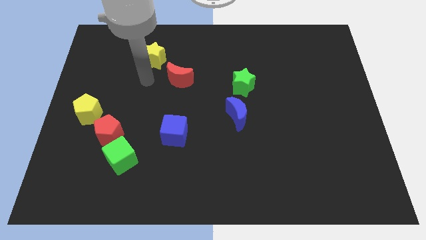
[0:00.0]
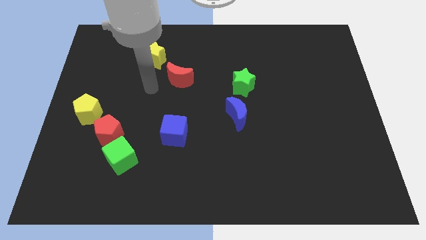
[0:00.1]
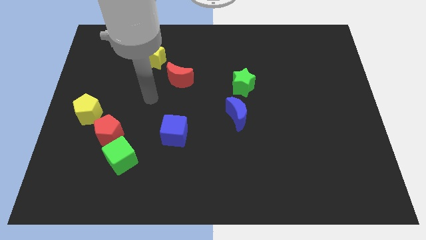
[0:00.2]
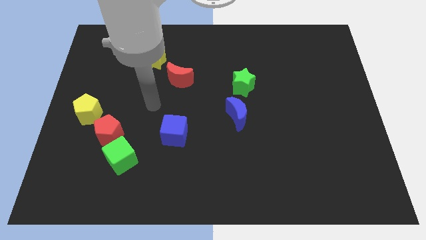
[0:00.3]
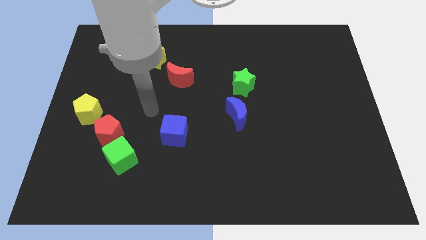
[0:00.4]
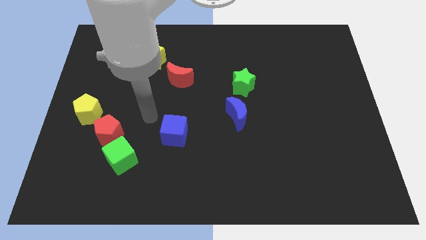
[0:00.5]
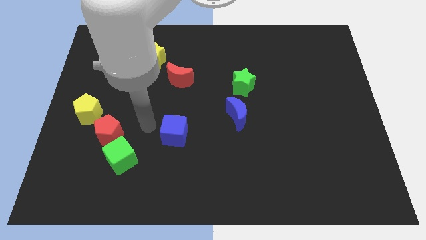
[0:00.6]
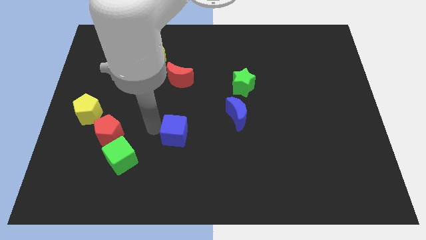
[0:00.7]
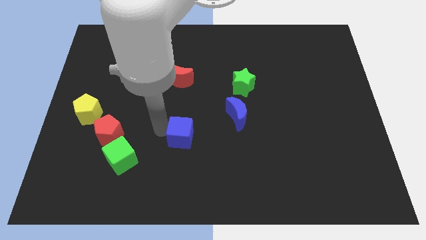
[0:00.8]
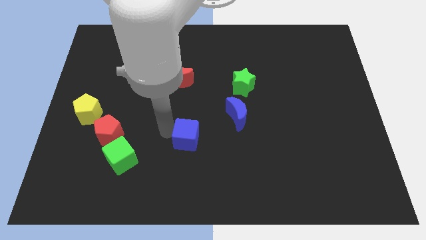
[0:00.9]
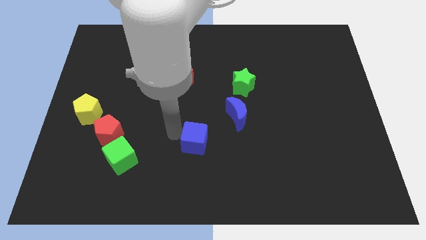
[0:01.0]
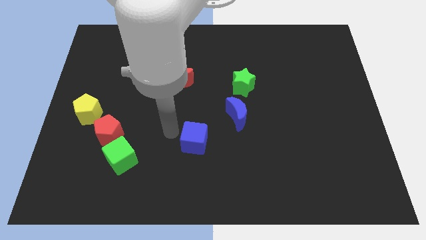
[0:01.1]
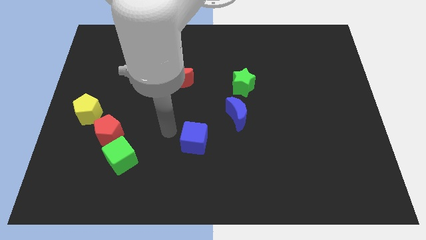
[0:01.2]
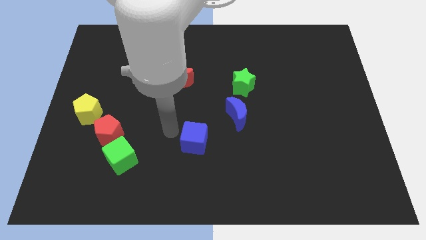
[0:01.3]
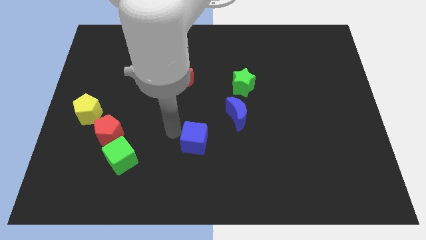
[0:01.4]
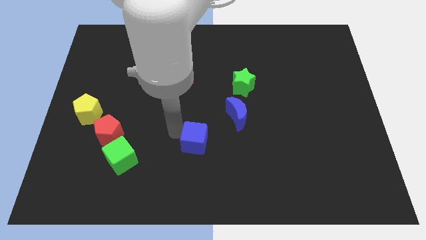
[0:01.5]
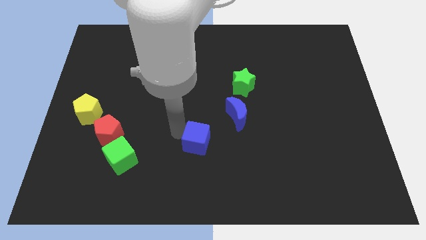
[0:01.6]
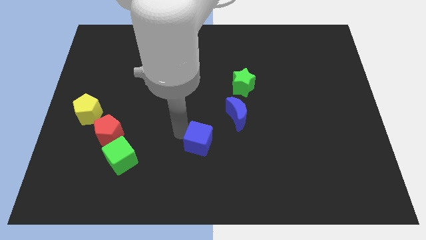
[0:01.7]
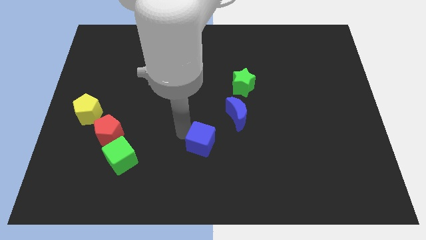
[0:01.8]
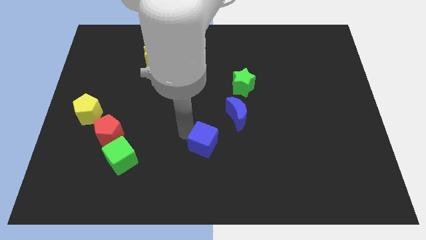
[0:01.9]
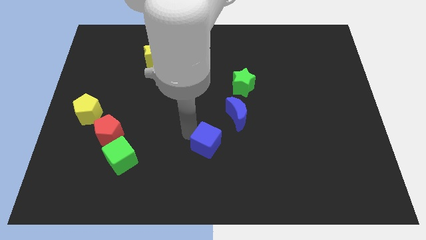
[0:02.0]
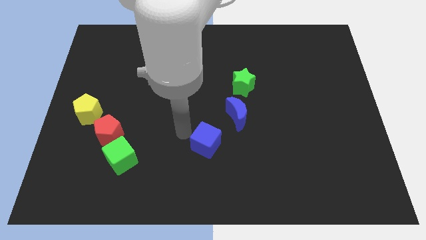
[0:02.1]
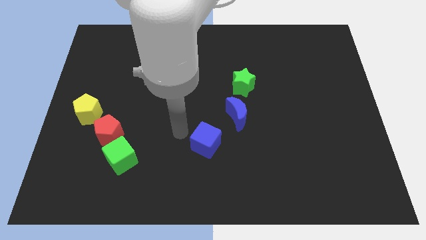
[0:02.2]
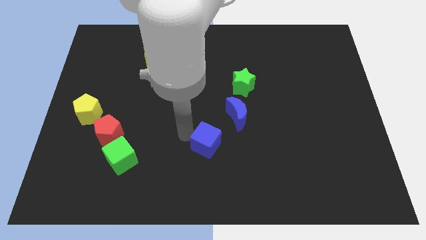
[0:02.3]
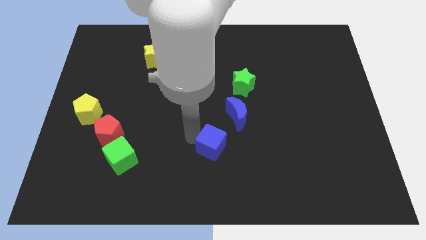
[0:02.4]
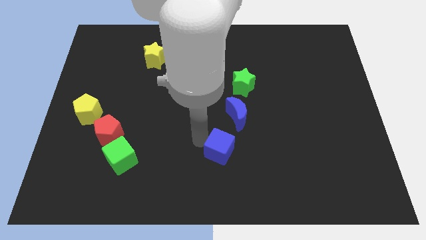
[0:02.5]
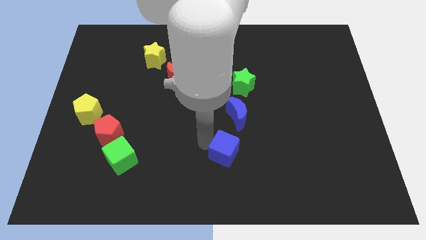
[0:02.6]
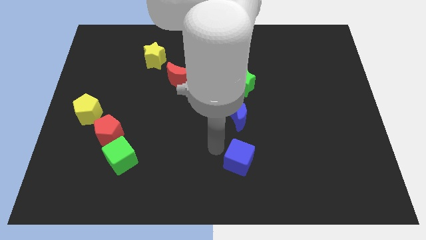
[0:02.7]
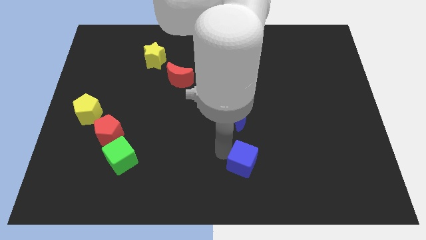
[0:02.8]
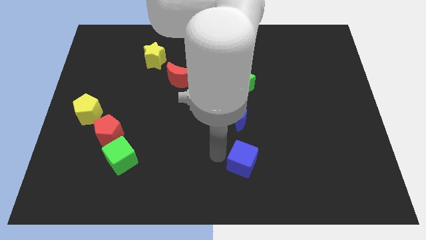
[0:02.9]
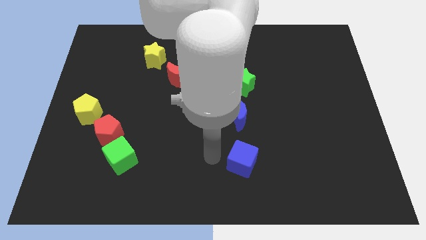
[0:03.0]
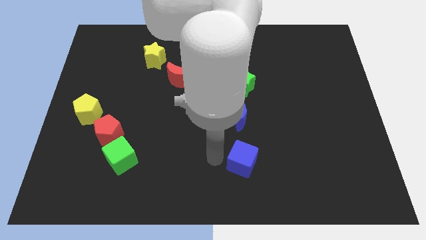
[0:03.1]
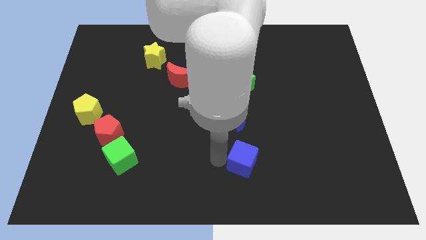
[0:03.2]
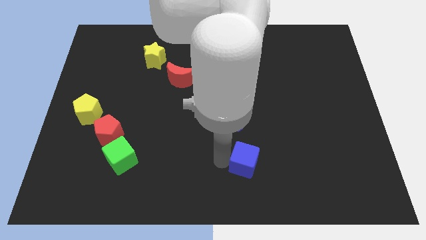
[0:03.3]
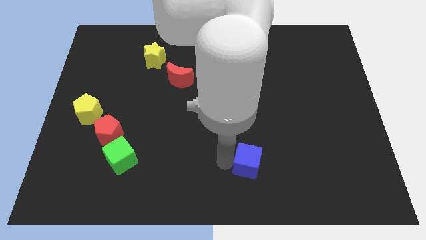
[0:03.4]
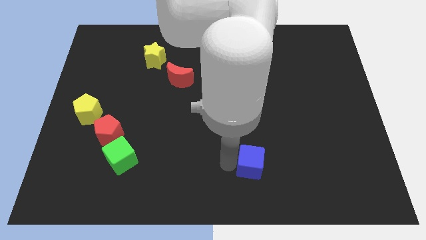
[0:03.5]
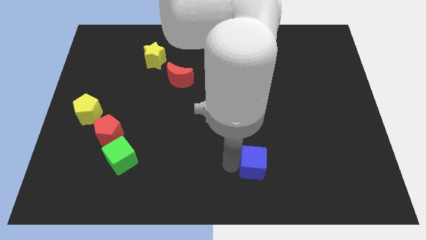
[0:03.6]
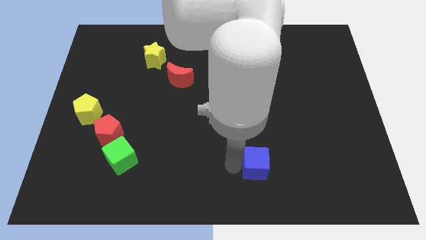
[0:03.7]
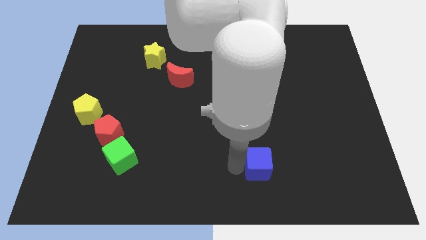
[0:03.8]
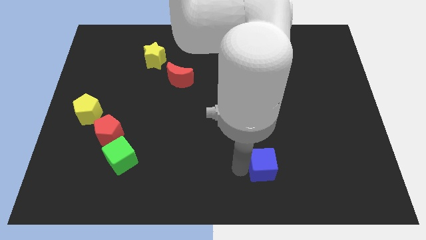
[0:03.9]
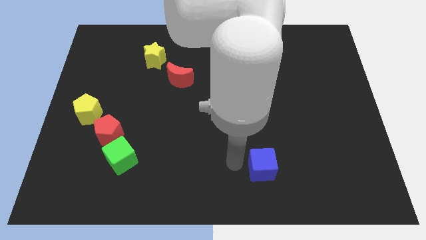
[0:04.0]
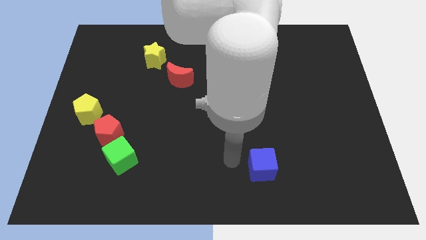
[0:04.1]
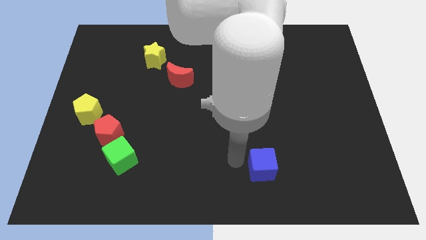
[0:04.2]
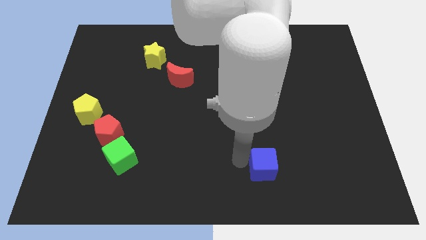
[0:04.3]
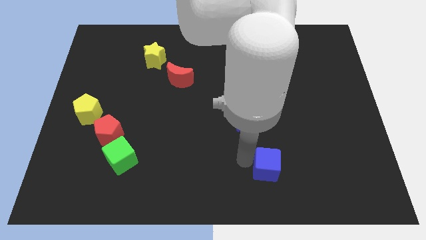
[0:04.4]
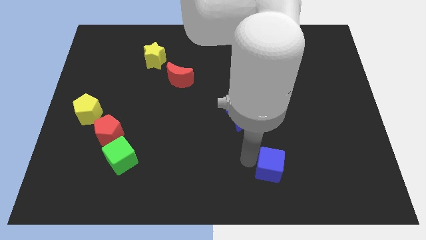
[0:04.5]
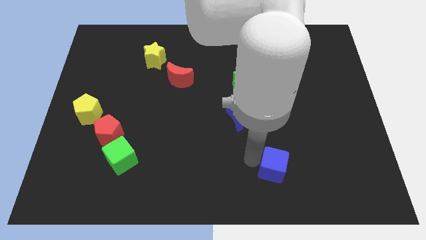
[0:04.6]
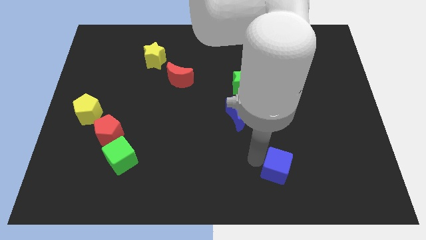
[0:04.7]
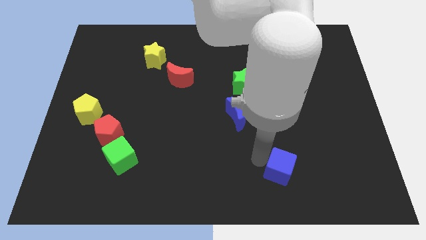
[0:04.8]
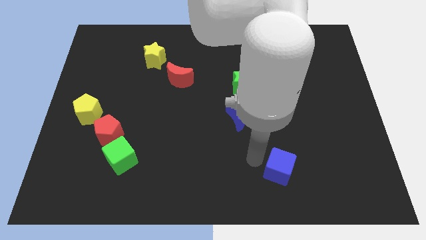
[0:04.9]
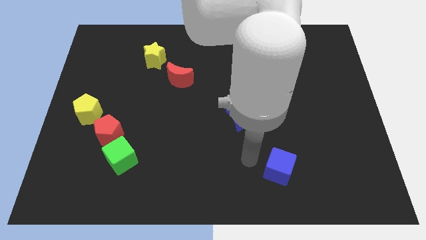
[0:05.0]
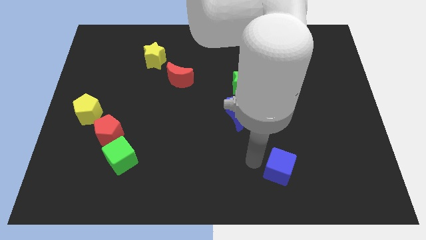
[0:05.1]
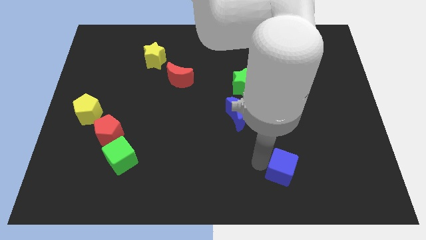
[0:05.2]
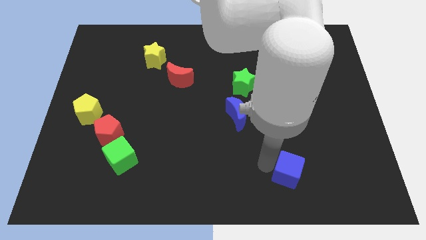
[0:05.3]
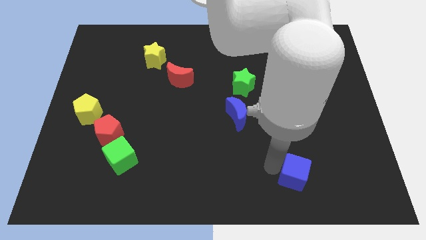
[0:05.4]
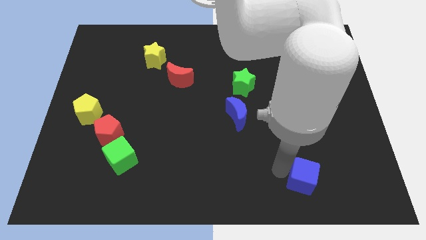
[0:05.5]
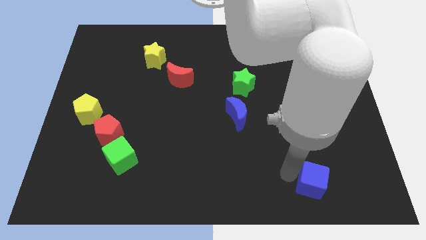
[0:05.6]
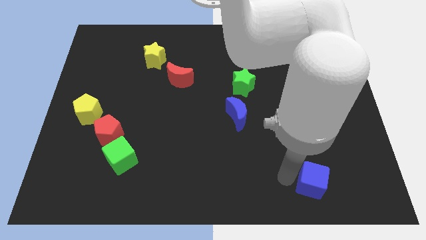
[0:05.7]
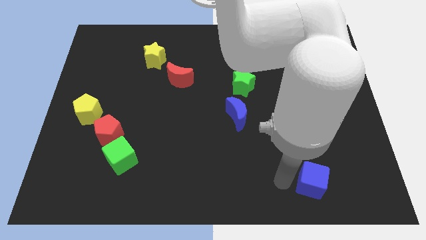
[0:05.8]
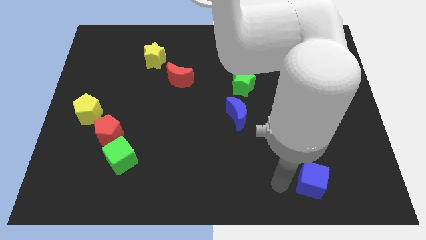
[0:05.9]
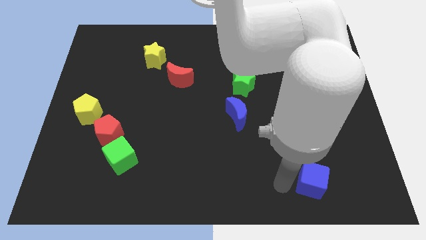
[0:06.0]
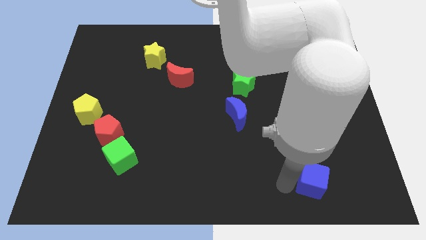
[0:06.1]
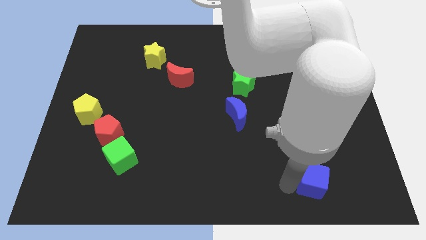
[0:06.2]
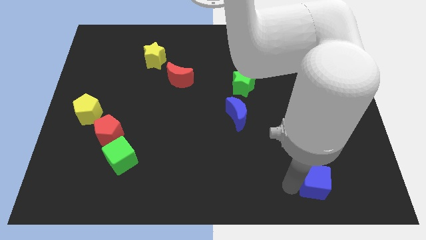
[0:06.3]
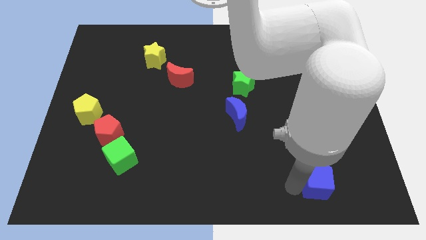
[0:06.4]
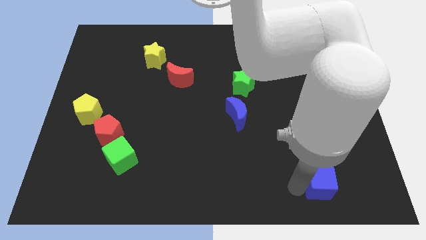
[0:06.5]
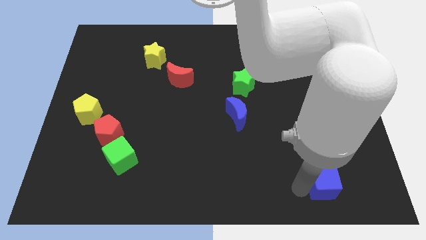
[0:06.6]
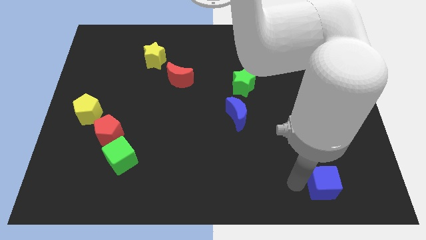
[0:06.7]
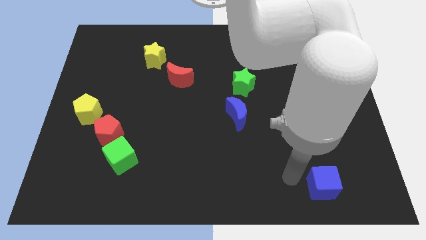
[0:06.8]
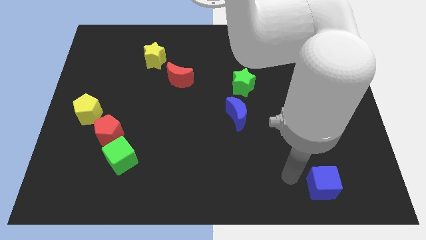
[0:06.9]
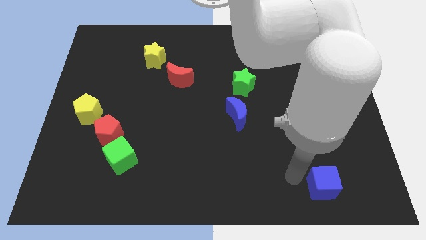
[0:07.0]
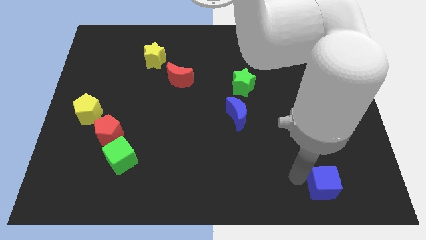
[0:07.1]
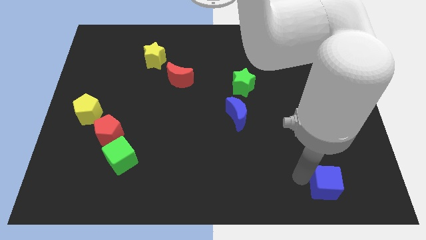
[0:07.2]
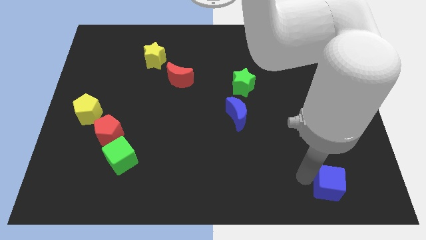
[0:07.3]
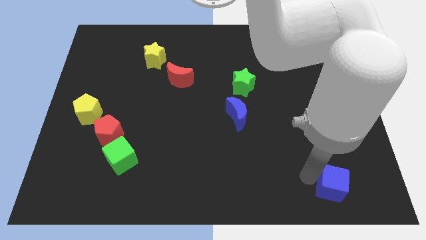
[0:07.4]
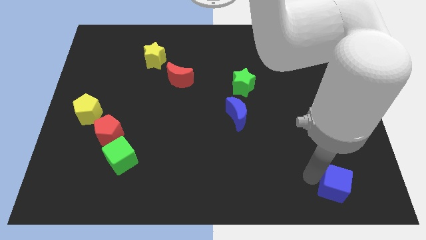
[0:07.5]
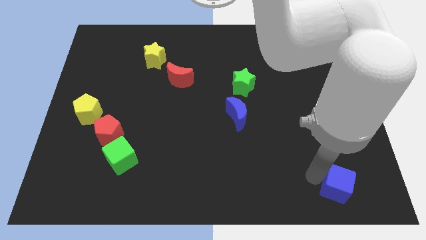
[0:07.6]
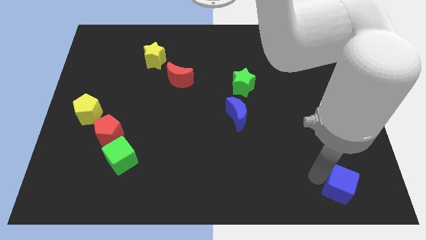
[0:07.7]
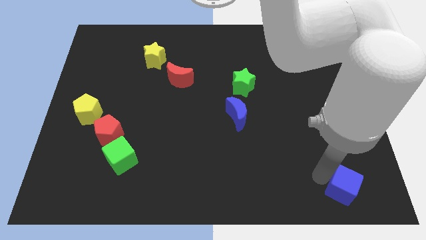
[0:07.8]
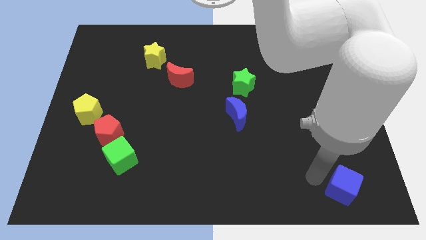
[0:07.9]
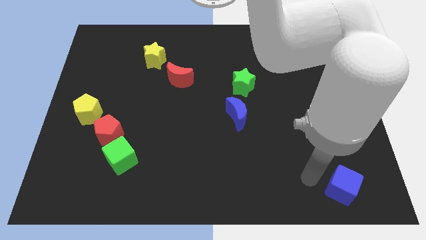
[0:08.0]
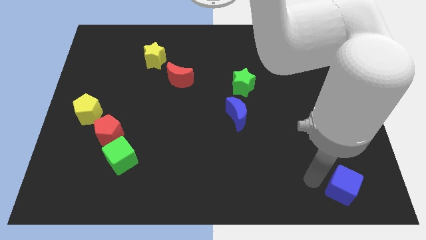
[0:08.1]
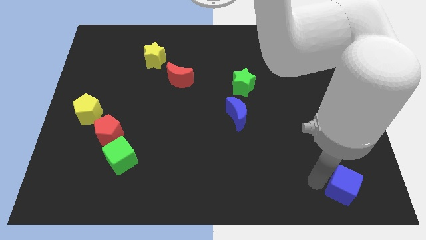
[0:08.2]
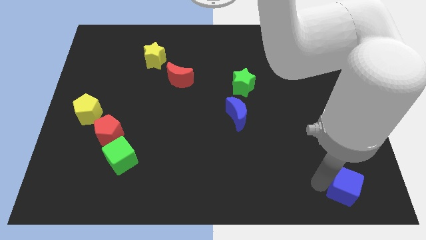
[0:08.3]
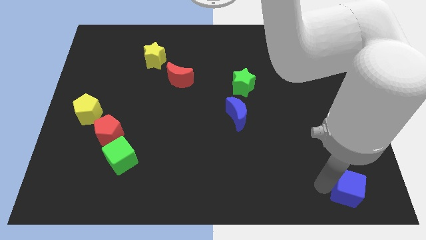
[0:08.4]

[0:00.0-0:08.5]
slide the blue cube to the bottom right
